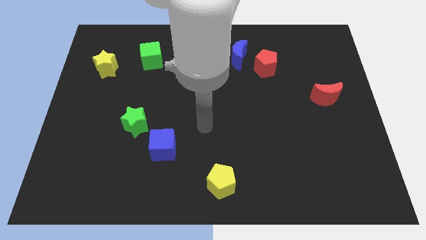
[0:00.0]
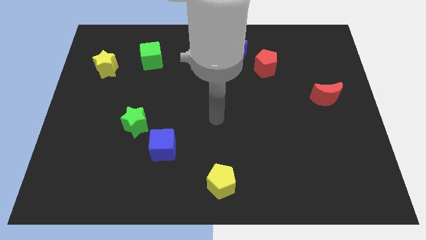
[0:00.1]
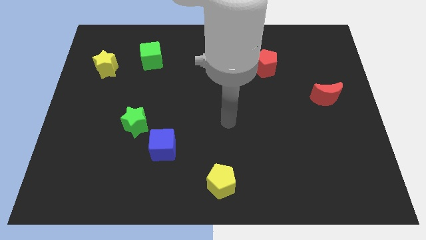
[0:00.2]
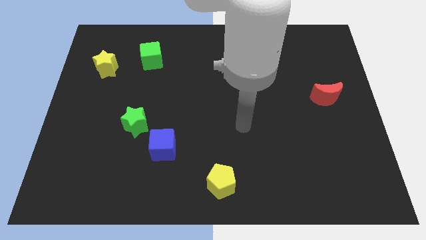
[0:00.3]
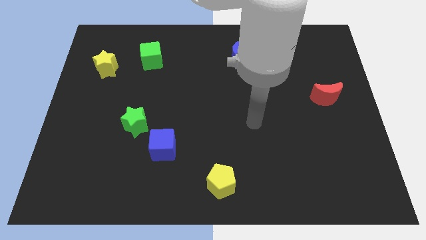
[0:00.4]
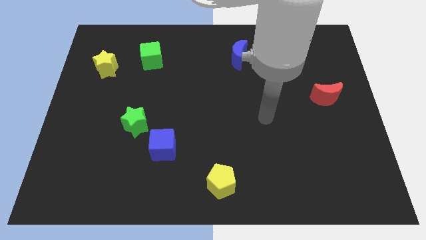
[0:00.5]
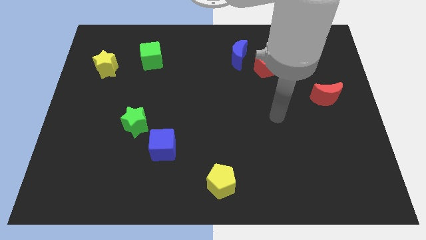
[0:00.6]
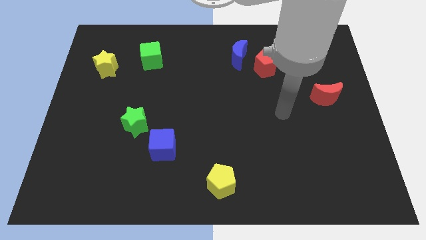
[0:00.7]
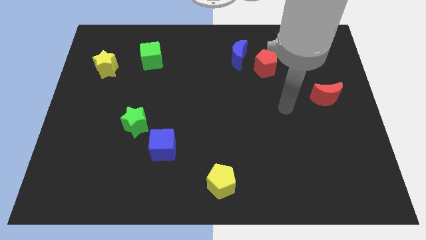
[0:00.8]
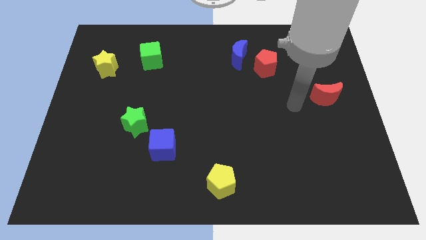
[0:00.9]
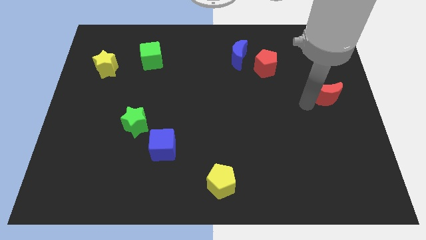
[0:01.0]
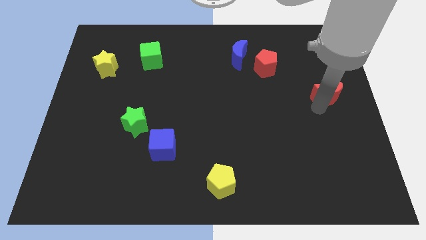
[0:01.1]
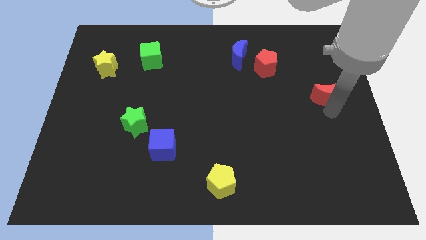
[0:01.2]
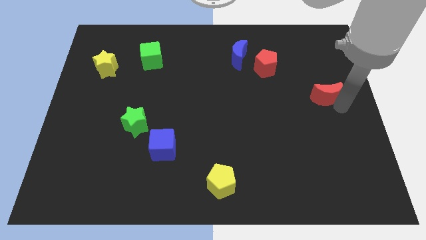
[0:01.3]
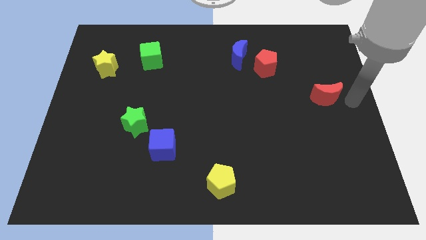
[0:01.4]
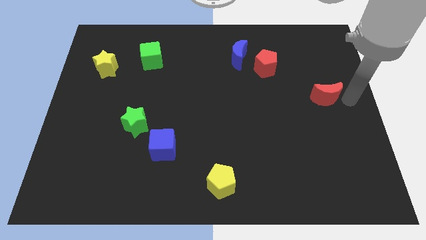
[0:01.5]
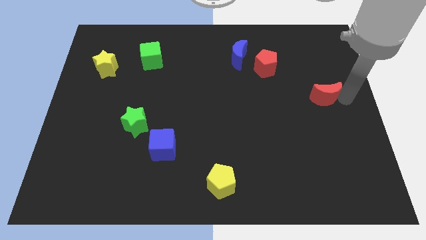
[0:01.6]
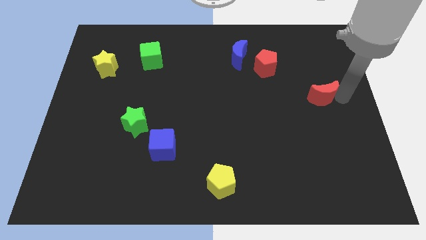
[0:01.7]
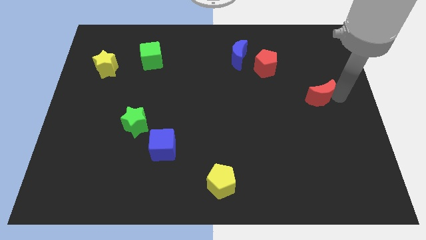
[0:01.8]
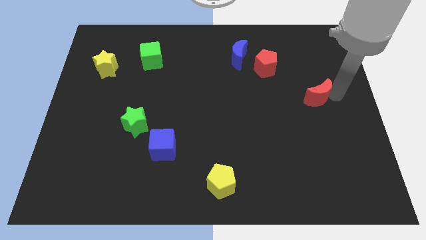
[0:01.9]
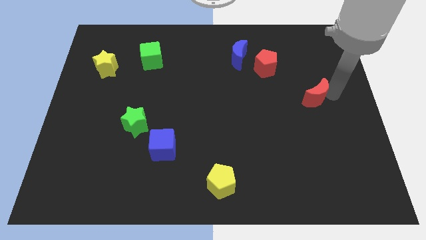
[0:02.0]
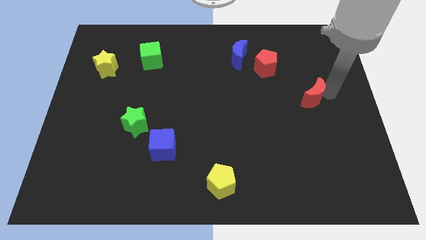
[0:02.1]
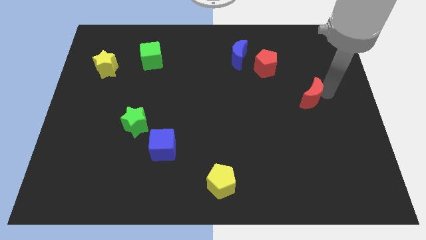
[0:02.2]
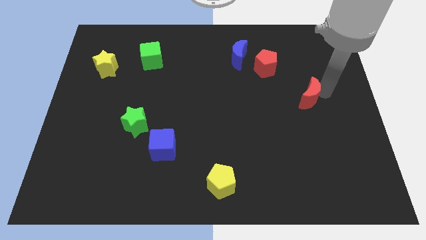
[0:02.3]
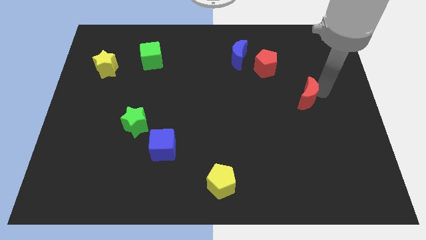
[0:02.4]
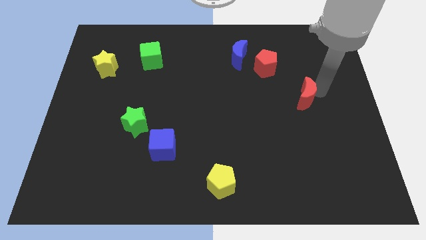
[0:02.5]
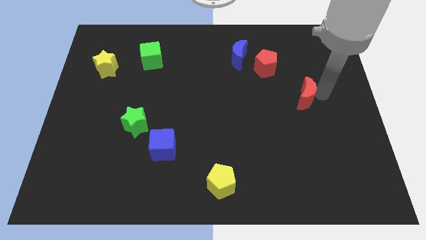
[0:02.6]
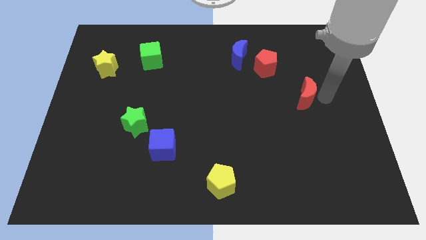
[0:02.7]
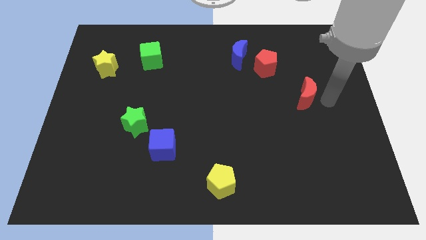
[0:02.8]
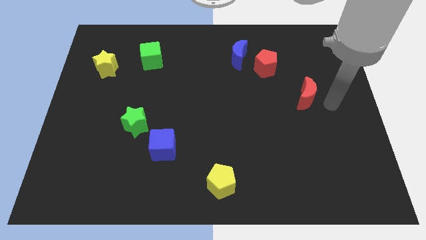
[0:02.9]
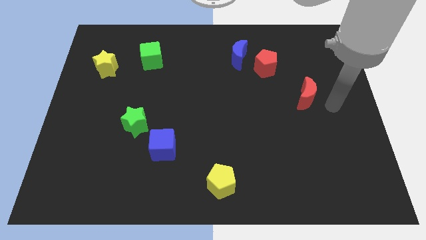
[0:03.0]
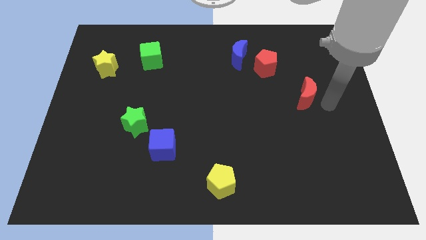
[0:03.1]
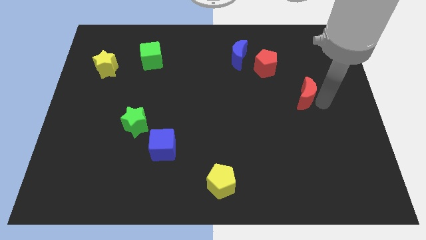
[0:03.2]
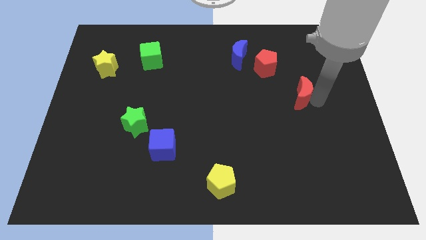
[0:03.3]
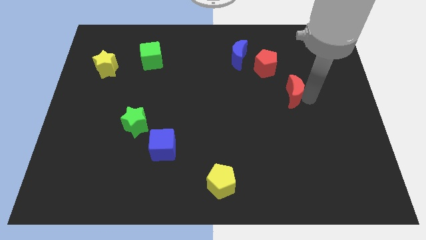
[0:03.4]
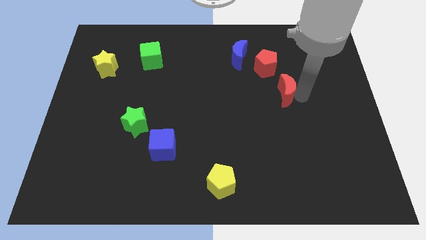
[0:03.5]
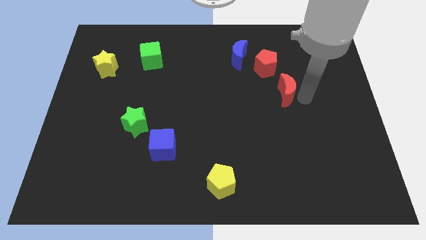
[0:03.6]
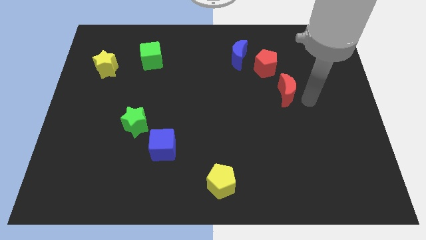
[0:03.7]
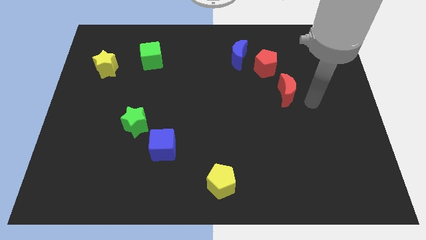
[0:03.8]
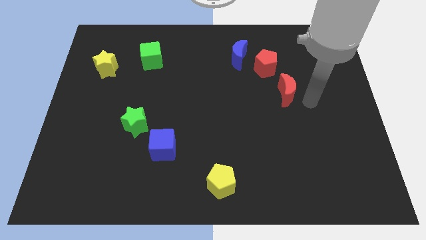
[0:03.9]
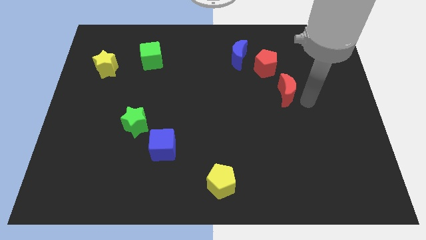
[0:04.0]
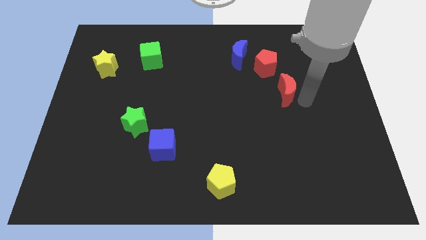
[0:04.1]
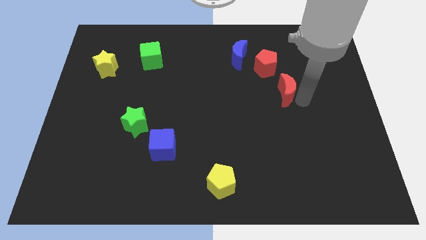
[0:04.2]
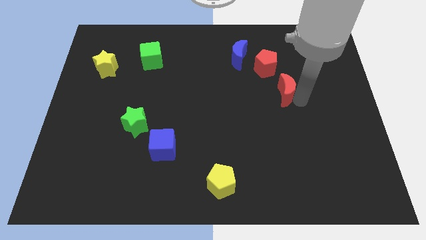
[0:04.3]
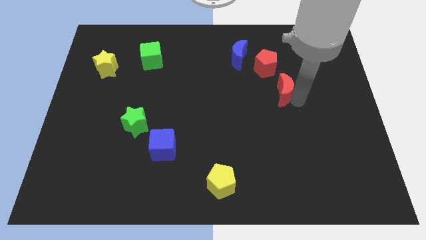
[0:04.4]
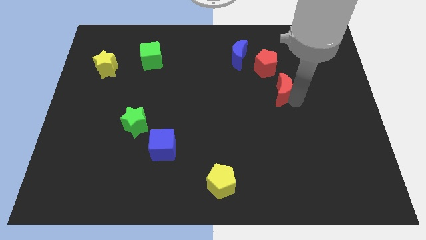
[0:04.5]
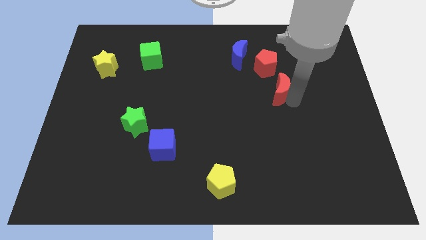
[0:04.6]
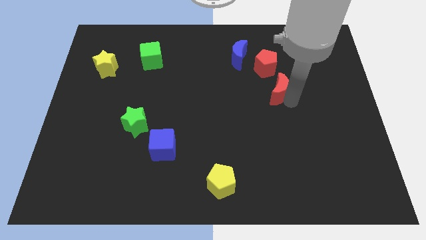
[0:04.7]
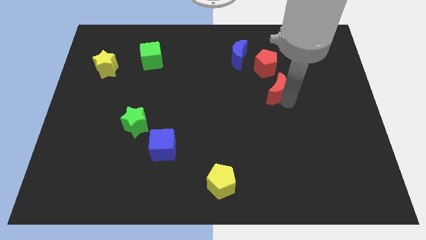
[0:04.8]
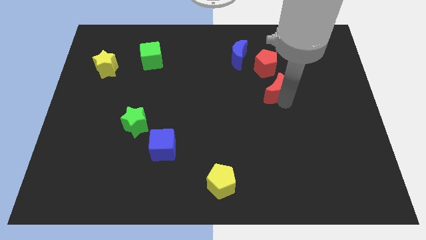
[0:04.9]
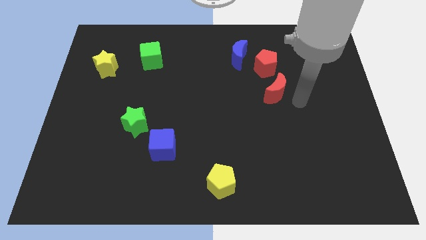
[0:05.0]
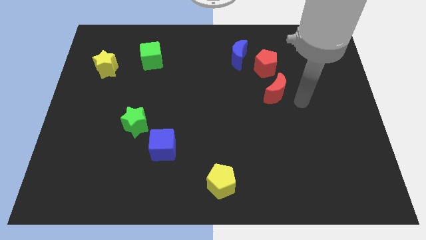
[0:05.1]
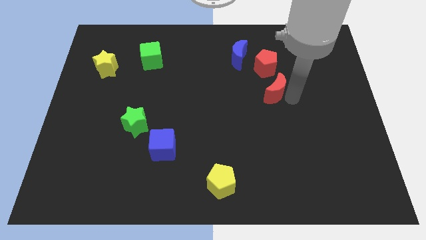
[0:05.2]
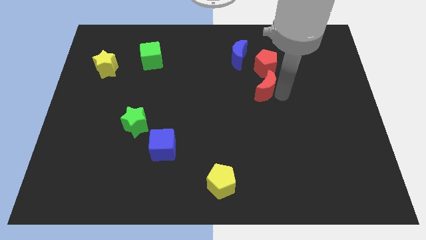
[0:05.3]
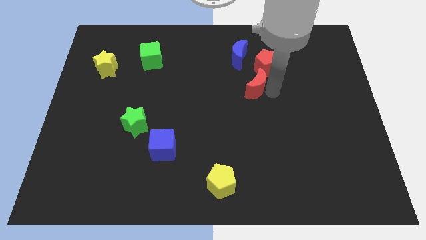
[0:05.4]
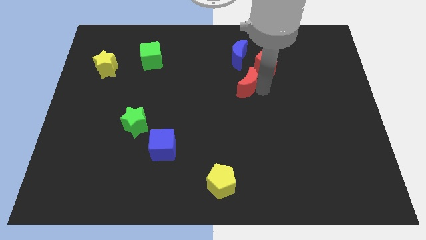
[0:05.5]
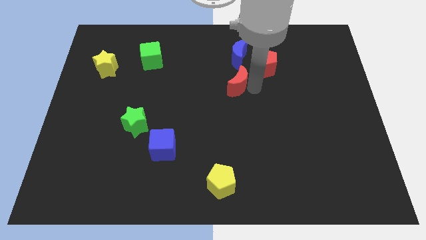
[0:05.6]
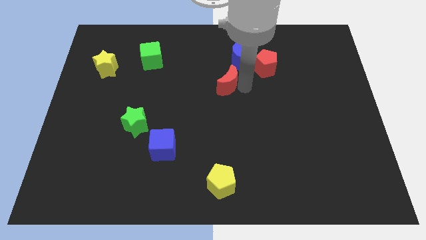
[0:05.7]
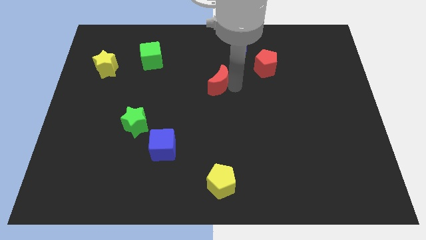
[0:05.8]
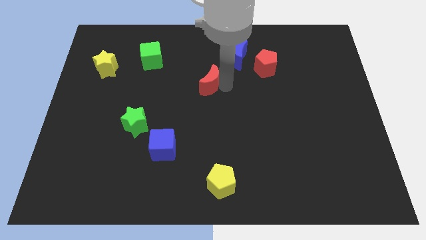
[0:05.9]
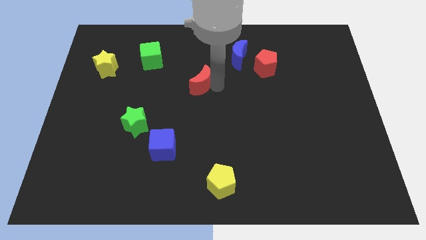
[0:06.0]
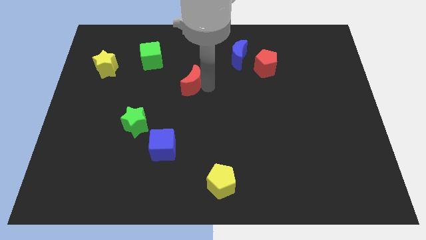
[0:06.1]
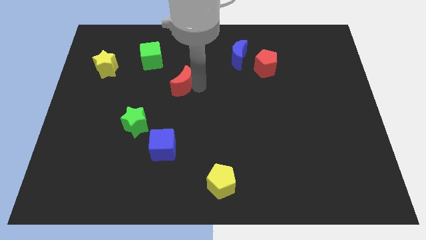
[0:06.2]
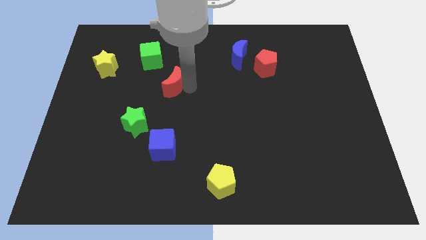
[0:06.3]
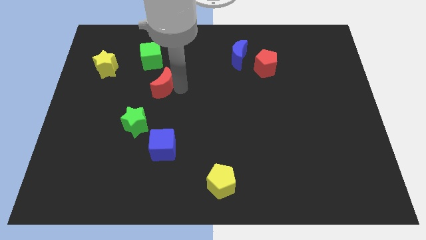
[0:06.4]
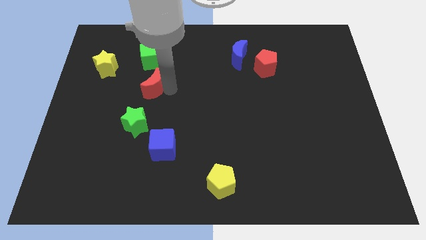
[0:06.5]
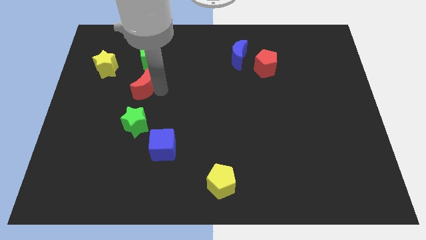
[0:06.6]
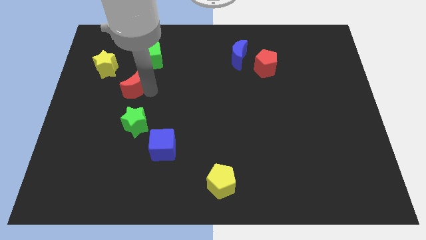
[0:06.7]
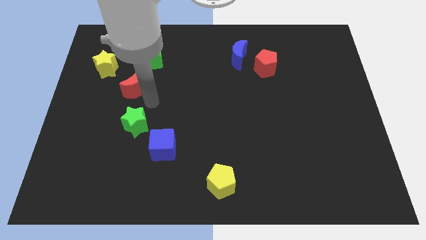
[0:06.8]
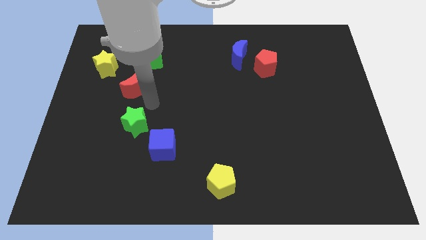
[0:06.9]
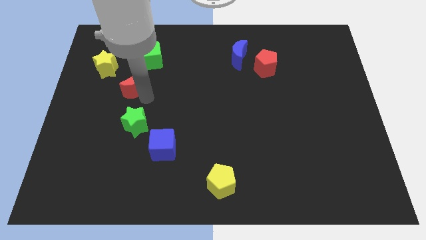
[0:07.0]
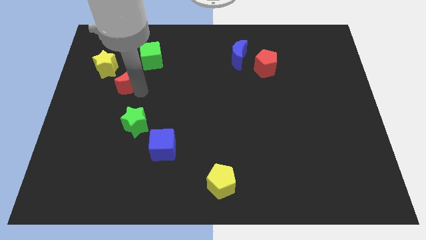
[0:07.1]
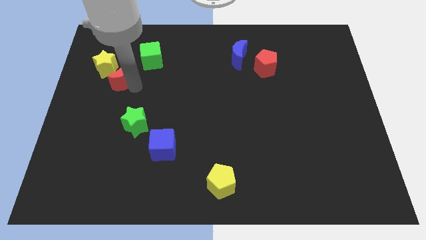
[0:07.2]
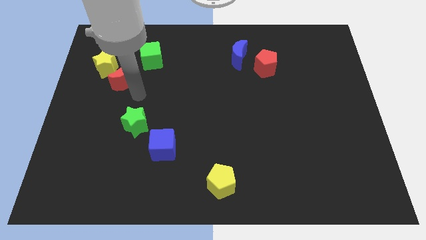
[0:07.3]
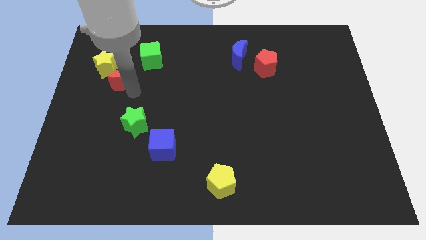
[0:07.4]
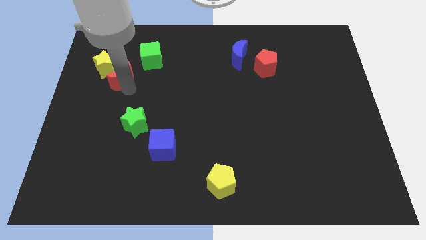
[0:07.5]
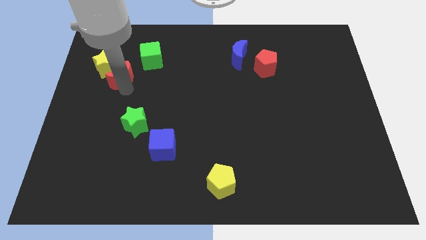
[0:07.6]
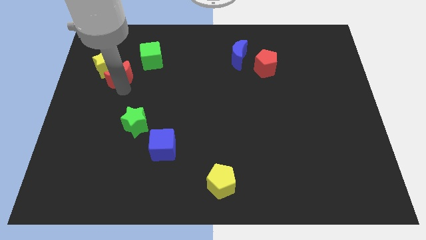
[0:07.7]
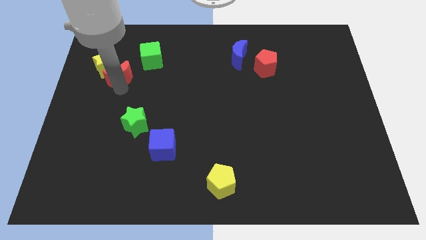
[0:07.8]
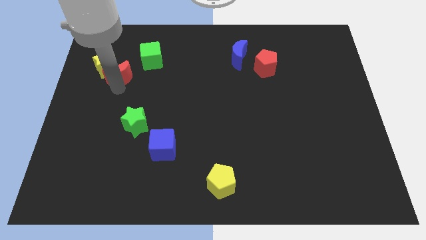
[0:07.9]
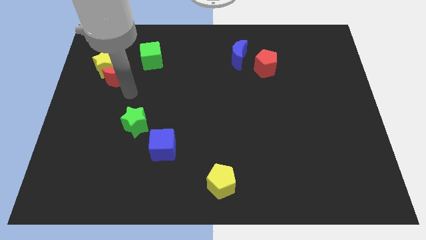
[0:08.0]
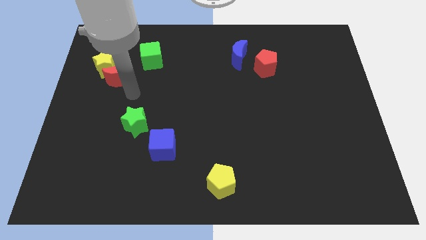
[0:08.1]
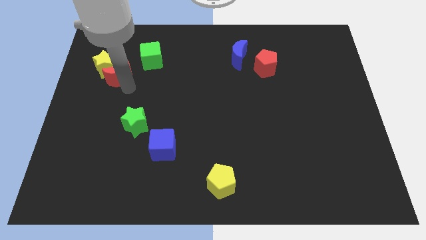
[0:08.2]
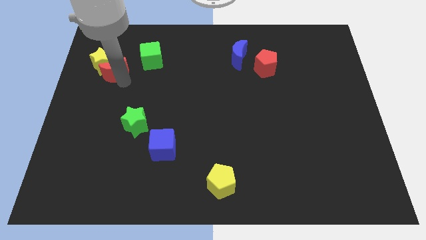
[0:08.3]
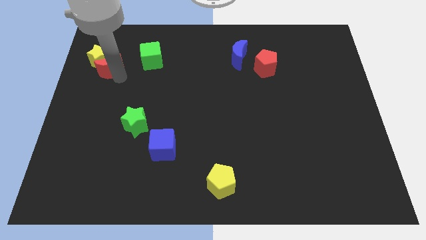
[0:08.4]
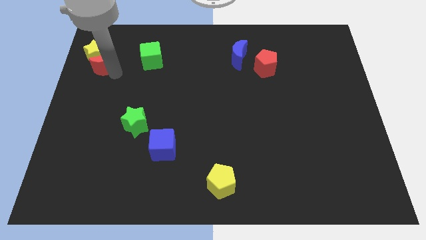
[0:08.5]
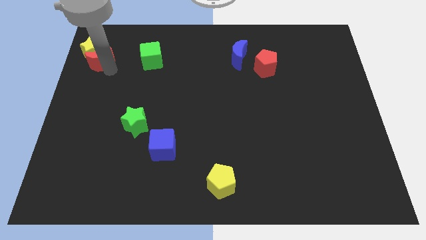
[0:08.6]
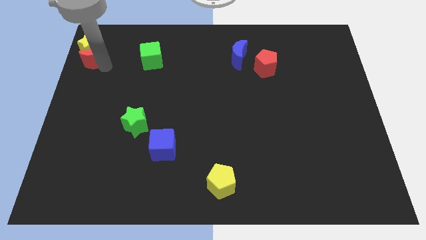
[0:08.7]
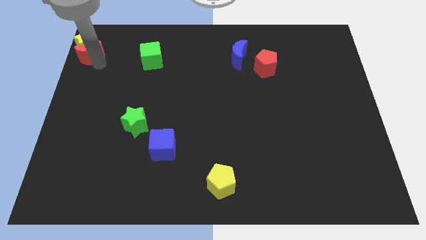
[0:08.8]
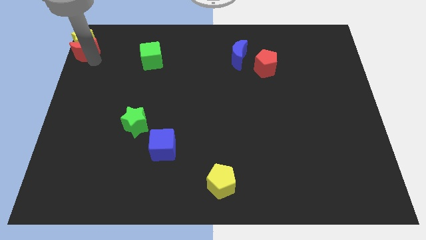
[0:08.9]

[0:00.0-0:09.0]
slide the red moon to the upper left corner
